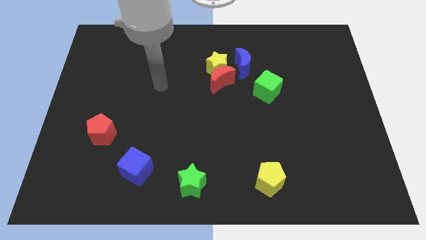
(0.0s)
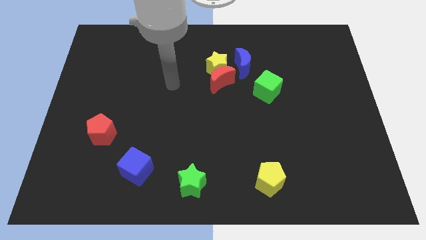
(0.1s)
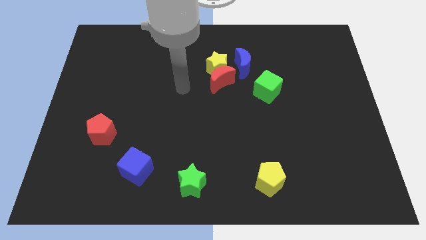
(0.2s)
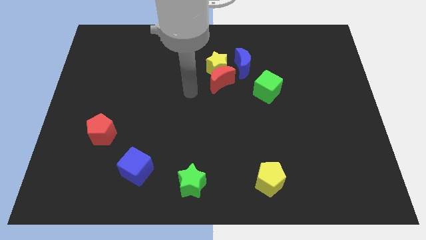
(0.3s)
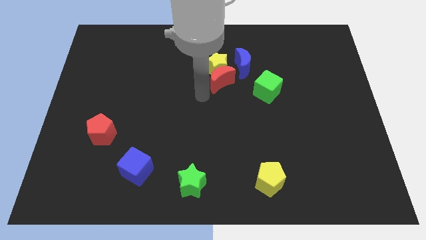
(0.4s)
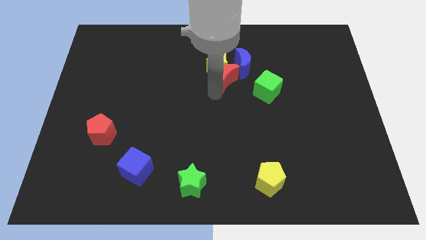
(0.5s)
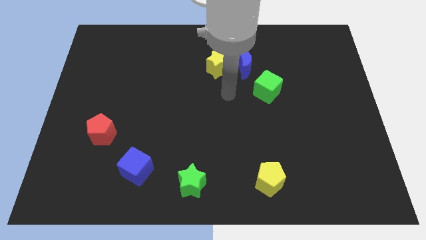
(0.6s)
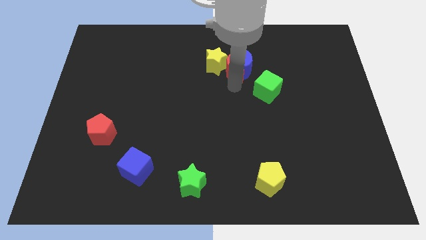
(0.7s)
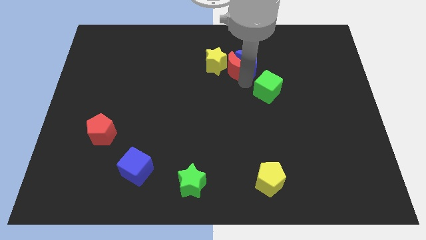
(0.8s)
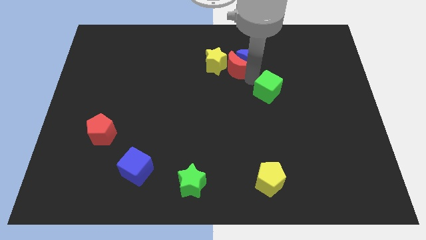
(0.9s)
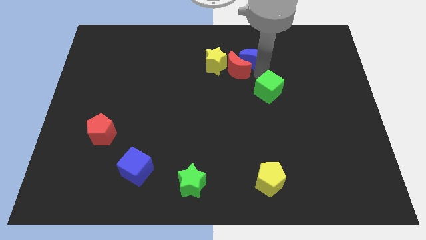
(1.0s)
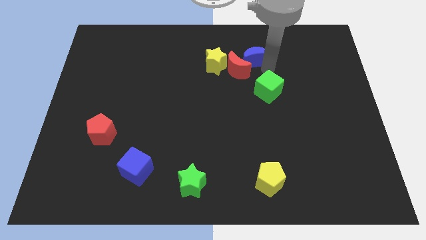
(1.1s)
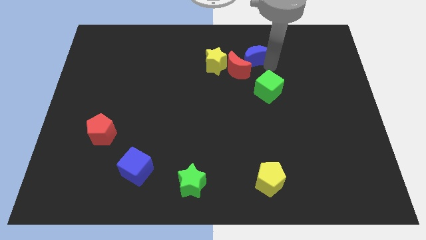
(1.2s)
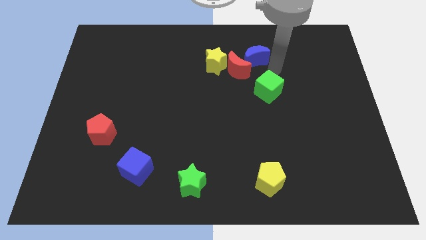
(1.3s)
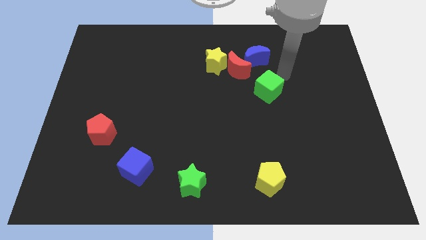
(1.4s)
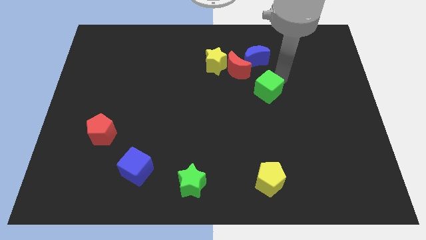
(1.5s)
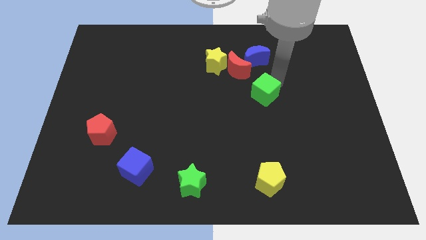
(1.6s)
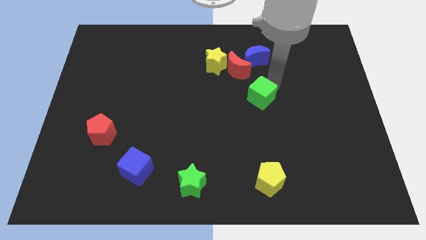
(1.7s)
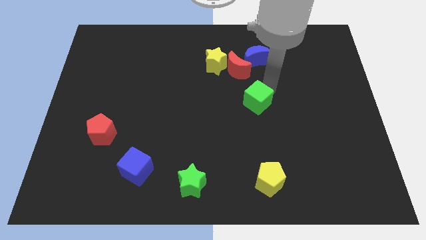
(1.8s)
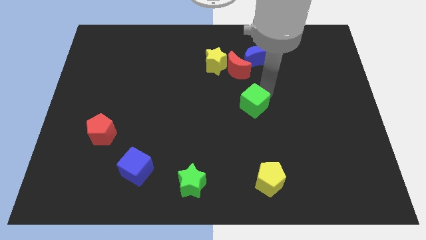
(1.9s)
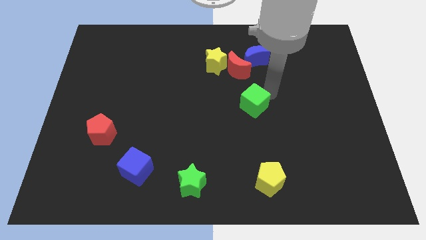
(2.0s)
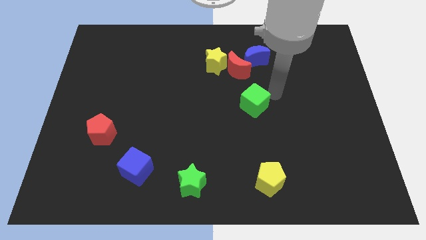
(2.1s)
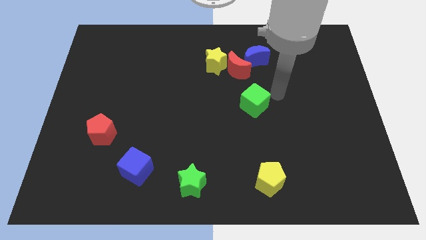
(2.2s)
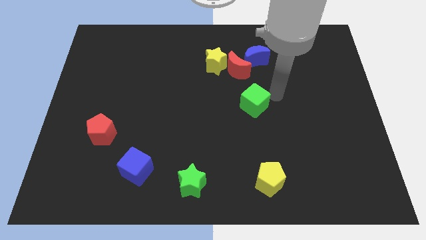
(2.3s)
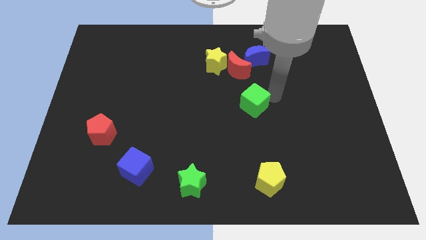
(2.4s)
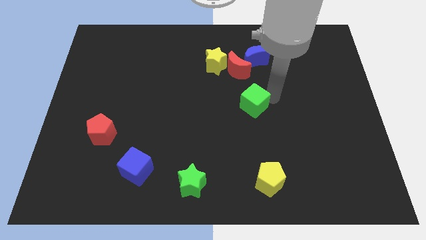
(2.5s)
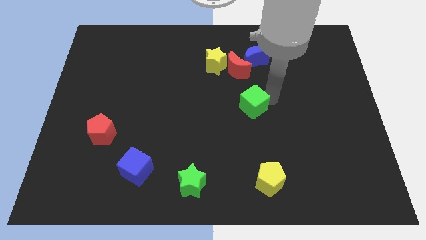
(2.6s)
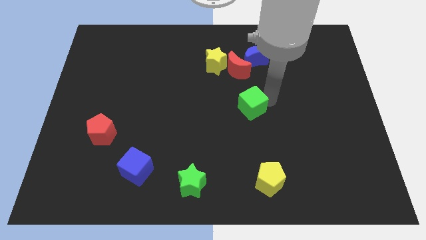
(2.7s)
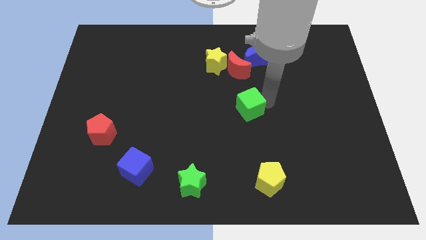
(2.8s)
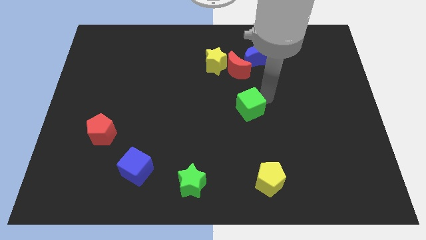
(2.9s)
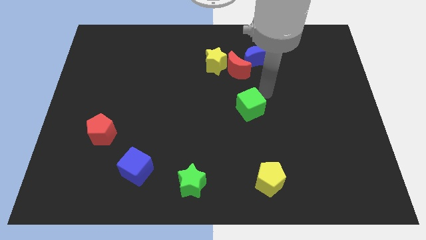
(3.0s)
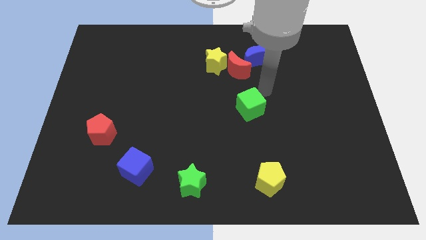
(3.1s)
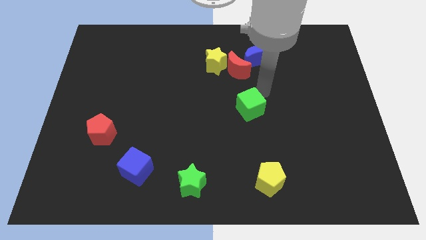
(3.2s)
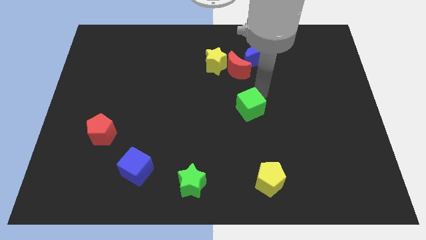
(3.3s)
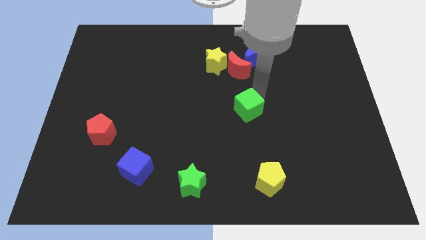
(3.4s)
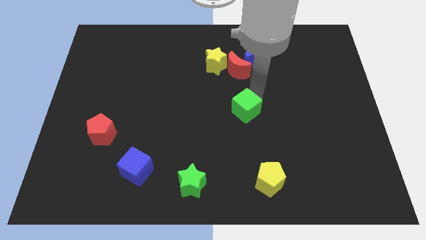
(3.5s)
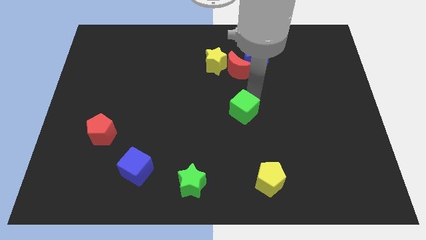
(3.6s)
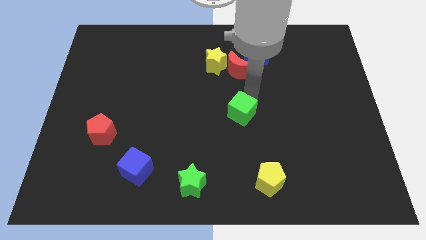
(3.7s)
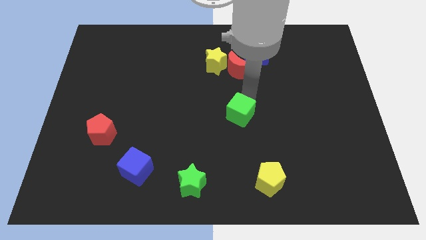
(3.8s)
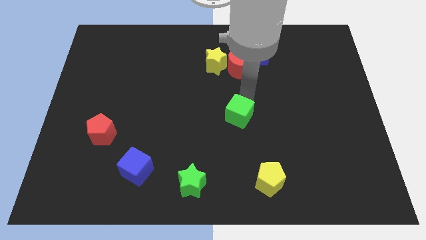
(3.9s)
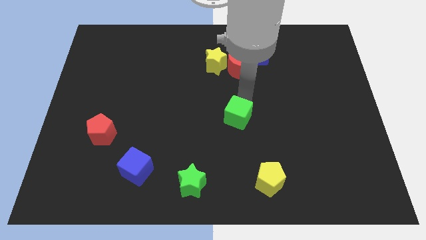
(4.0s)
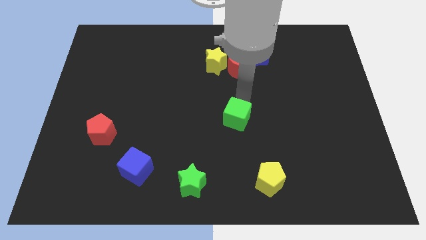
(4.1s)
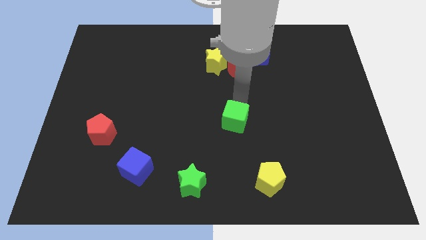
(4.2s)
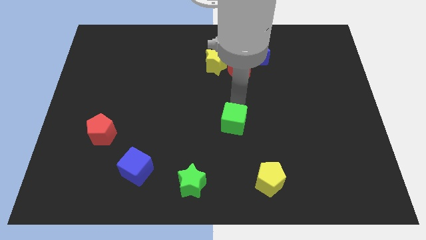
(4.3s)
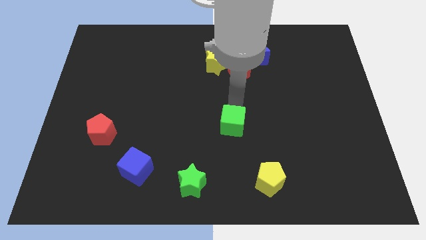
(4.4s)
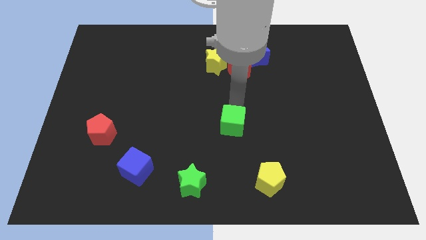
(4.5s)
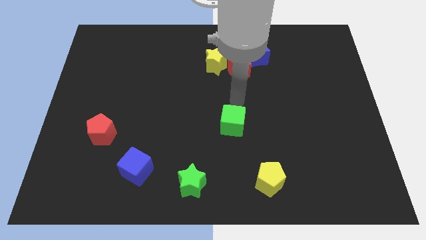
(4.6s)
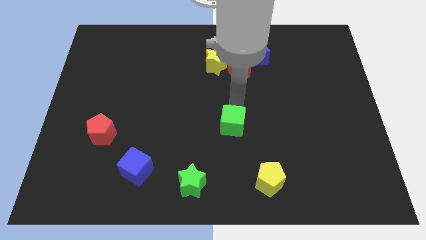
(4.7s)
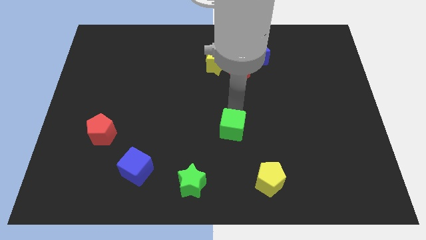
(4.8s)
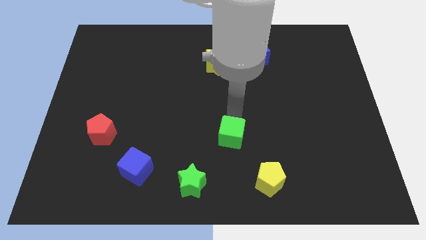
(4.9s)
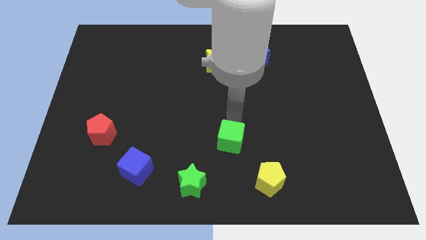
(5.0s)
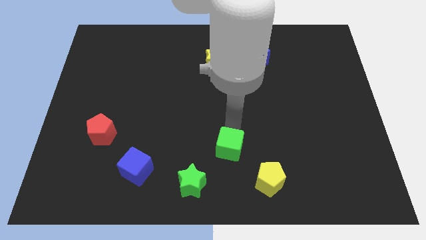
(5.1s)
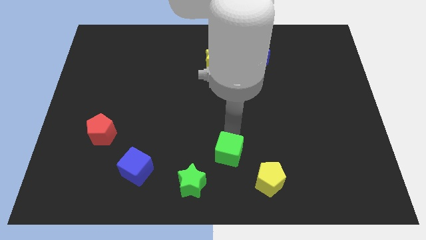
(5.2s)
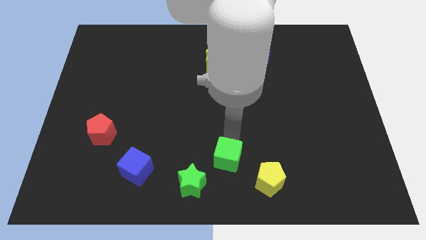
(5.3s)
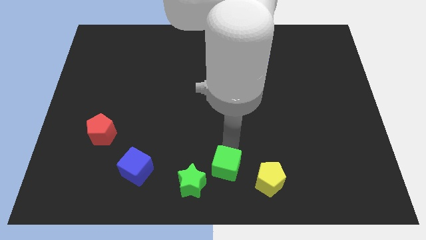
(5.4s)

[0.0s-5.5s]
put the green cube to the left of the yellow pentagon

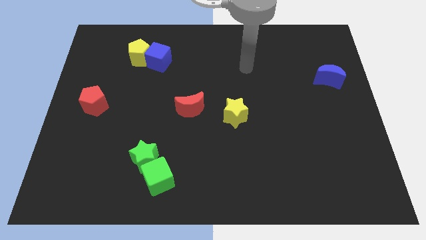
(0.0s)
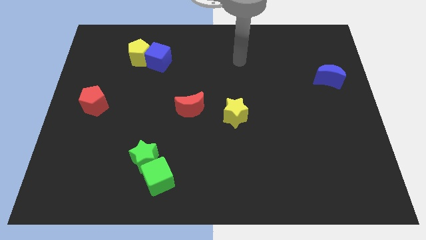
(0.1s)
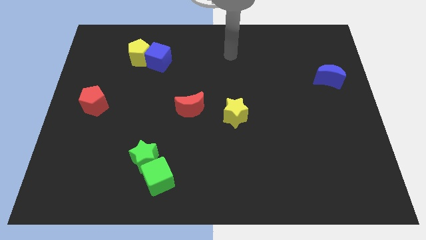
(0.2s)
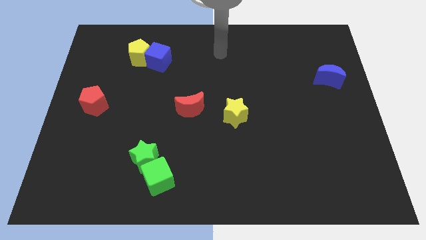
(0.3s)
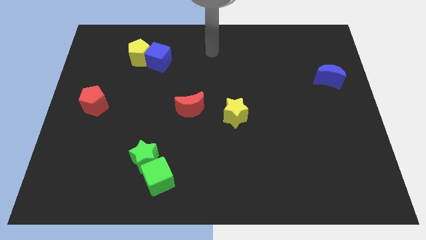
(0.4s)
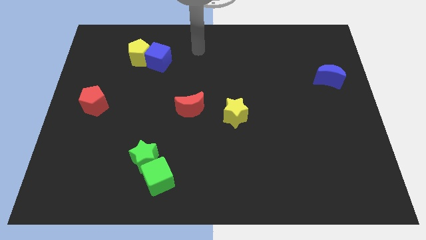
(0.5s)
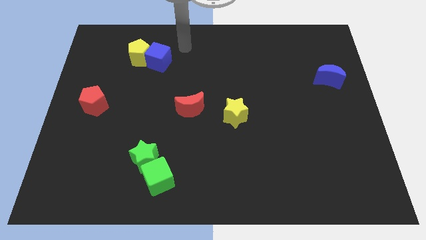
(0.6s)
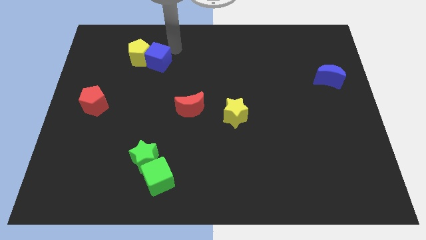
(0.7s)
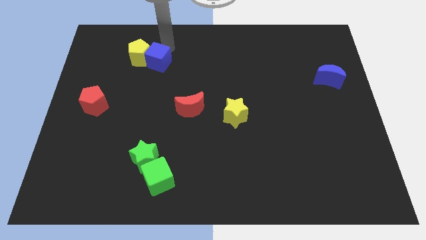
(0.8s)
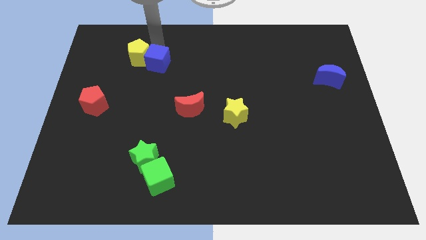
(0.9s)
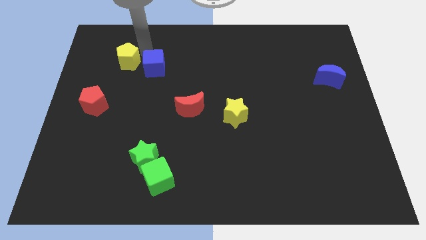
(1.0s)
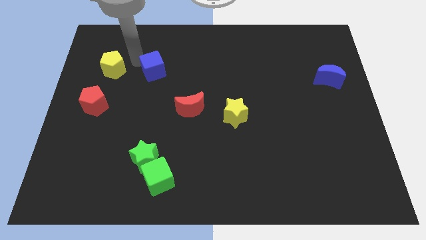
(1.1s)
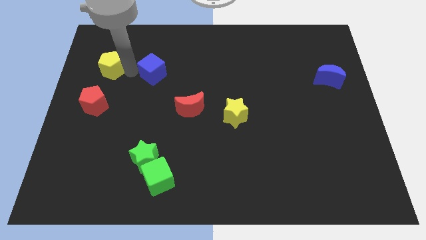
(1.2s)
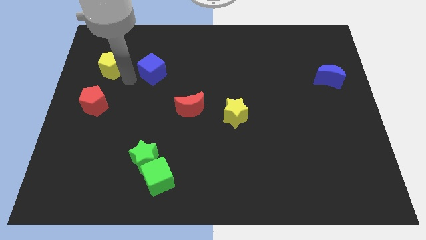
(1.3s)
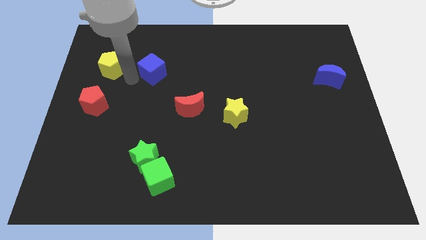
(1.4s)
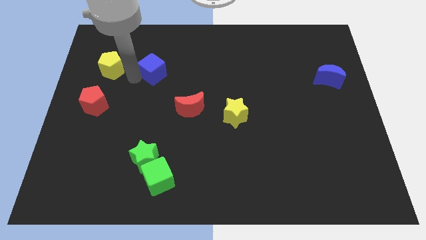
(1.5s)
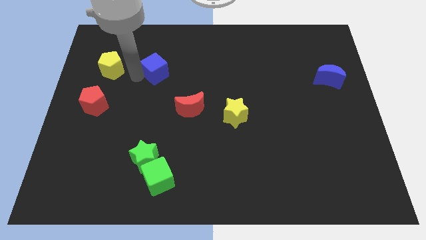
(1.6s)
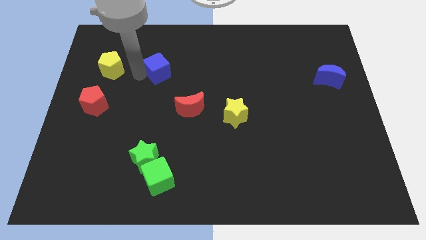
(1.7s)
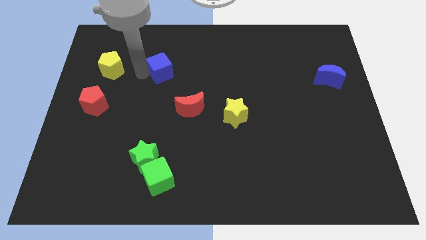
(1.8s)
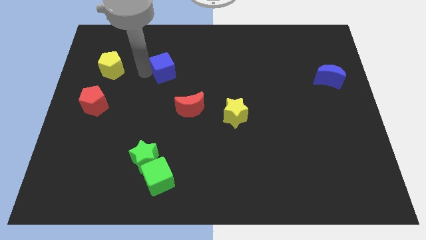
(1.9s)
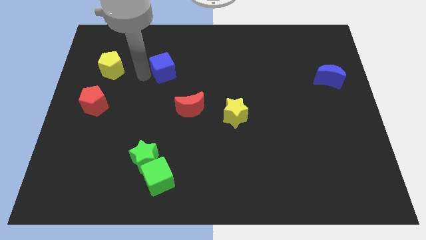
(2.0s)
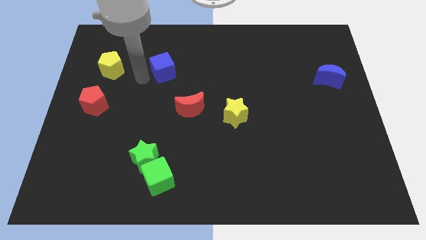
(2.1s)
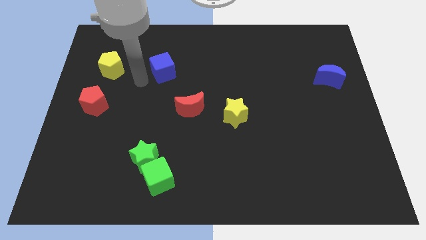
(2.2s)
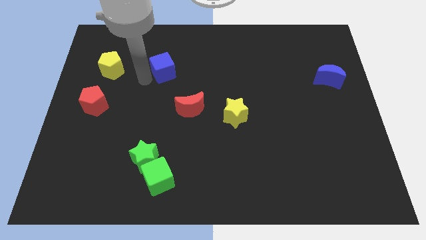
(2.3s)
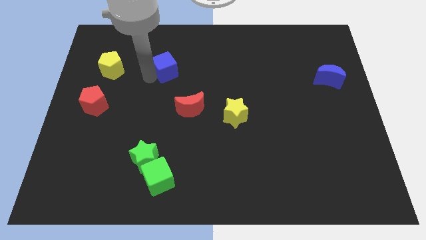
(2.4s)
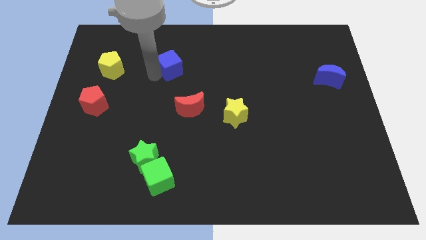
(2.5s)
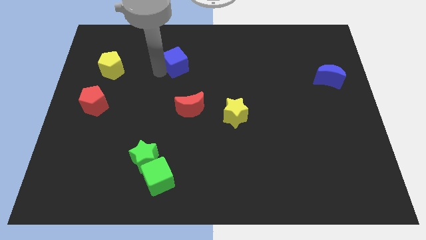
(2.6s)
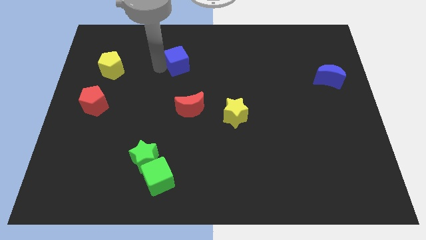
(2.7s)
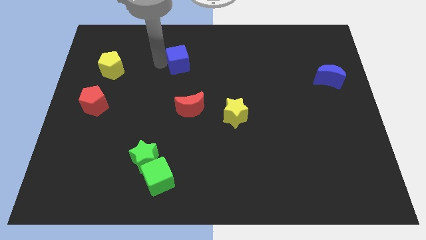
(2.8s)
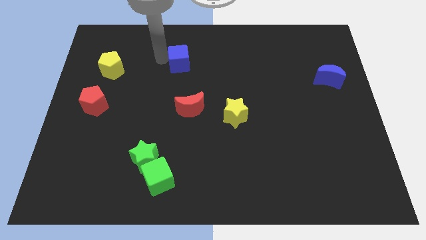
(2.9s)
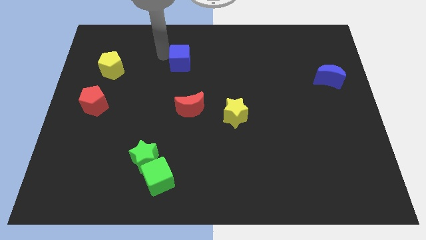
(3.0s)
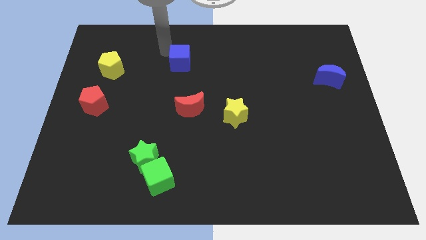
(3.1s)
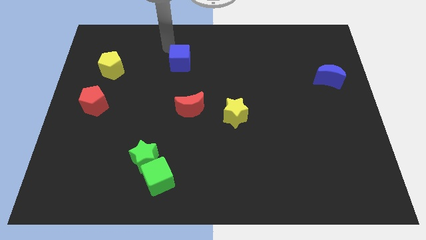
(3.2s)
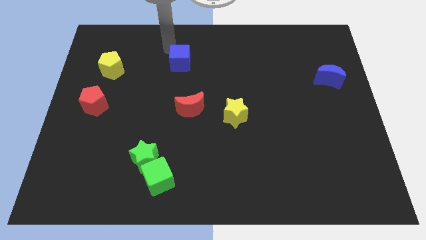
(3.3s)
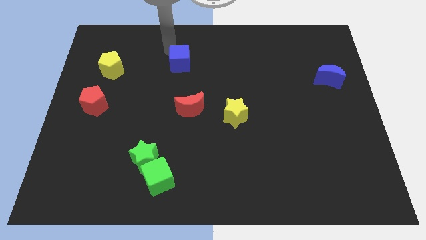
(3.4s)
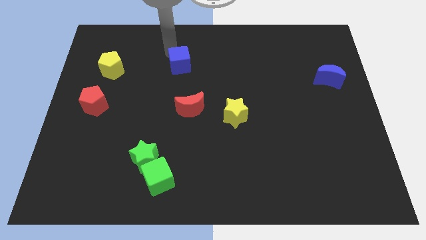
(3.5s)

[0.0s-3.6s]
move the blue cube above the red moon
